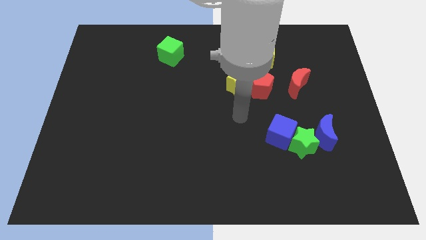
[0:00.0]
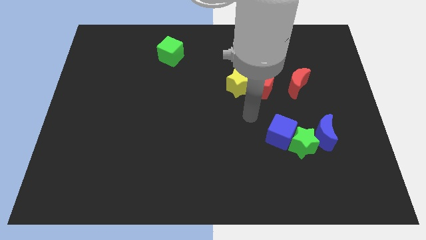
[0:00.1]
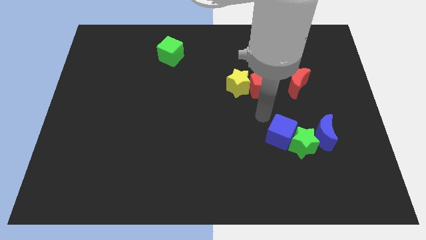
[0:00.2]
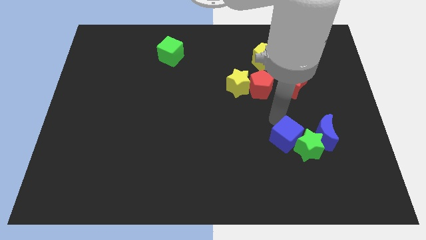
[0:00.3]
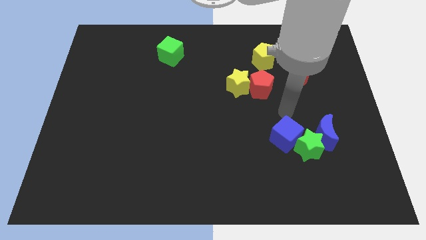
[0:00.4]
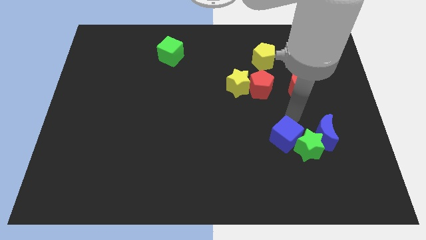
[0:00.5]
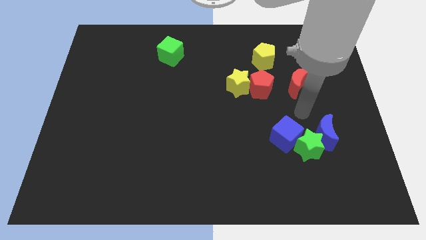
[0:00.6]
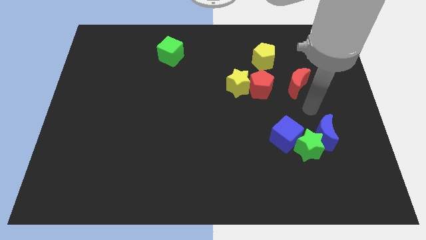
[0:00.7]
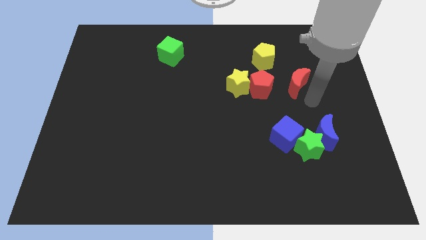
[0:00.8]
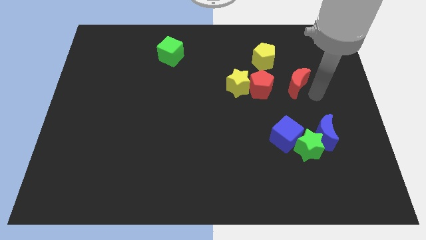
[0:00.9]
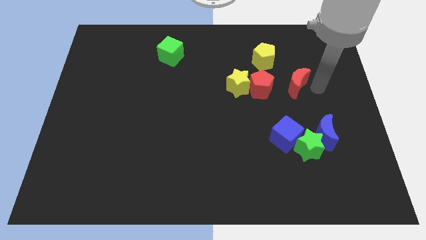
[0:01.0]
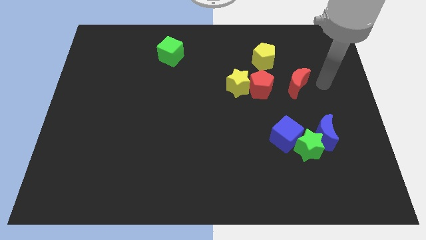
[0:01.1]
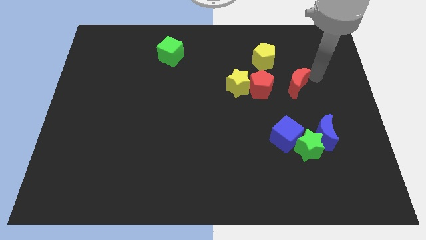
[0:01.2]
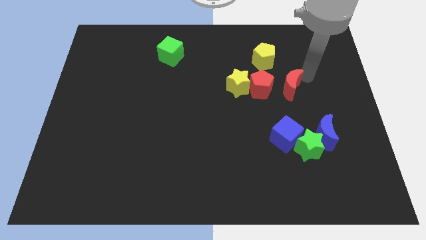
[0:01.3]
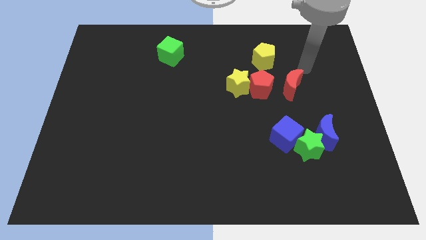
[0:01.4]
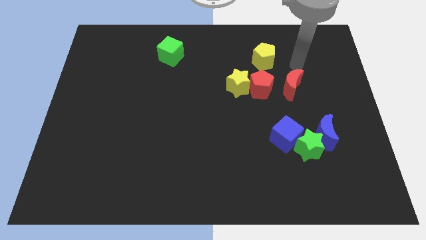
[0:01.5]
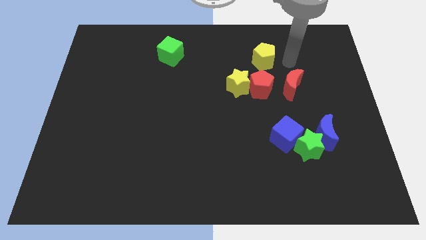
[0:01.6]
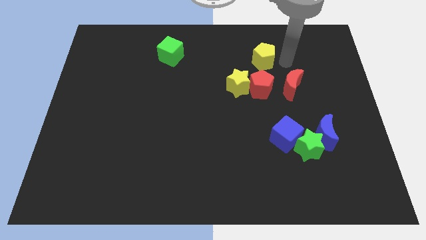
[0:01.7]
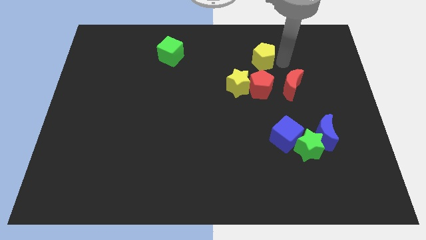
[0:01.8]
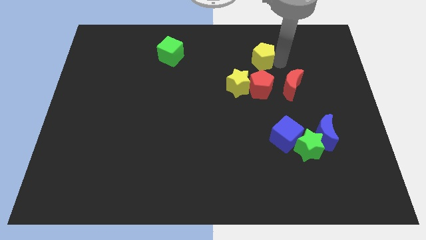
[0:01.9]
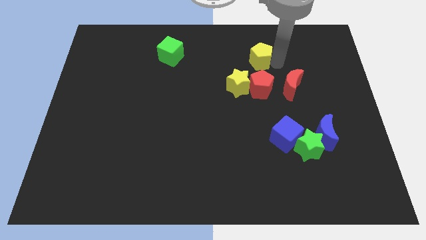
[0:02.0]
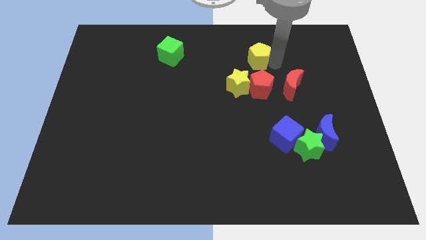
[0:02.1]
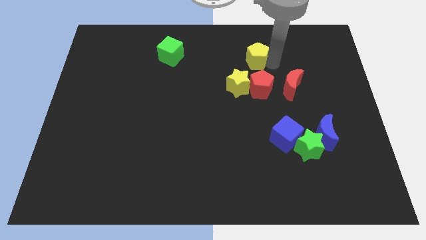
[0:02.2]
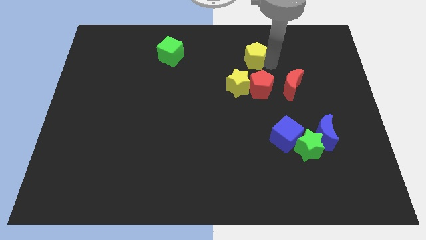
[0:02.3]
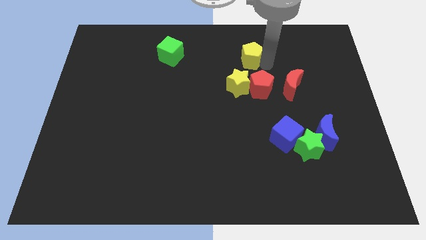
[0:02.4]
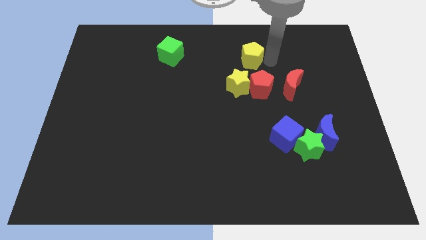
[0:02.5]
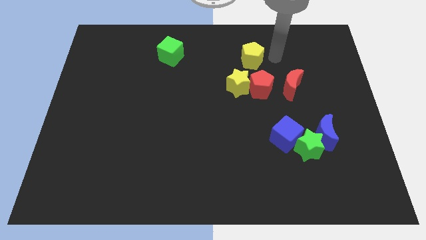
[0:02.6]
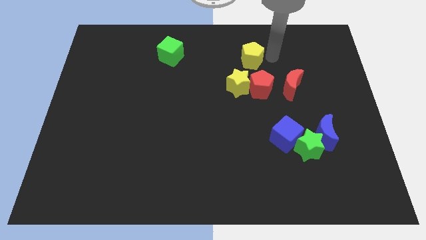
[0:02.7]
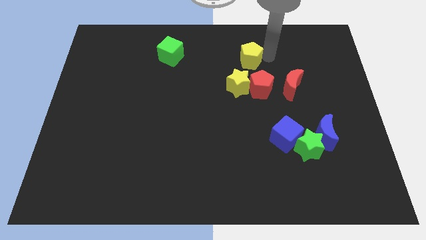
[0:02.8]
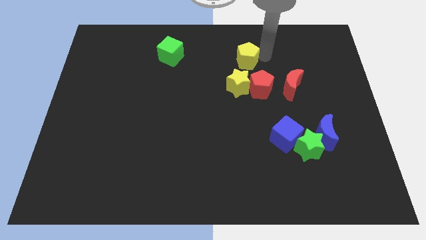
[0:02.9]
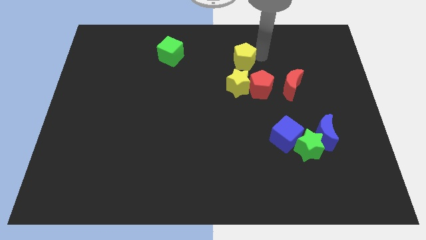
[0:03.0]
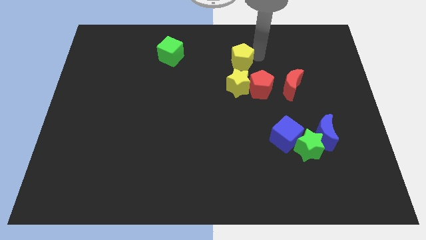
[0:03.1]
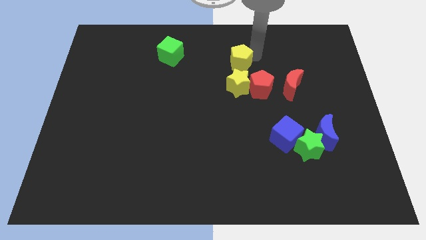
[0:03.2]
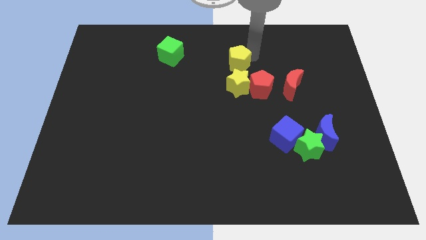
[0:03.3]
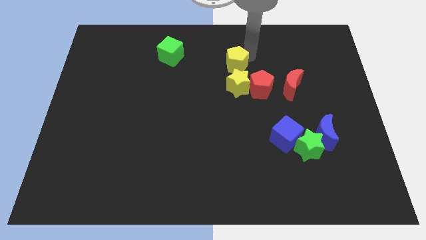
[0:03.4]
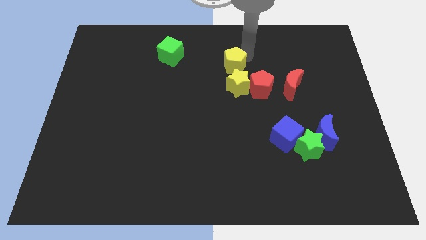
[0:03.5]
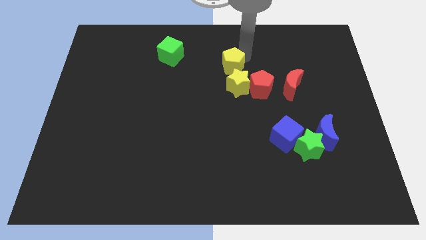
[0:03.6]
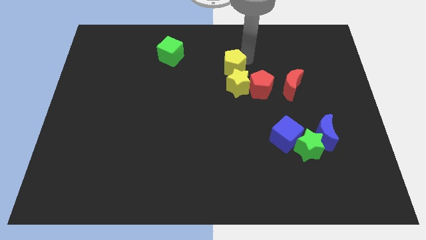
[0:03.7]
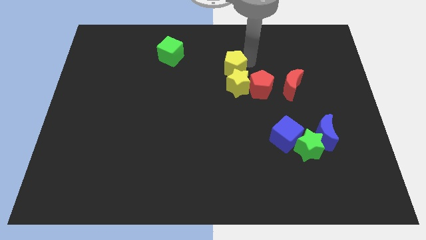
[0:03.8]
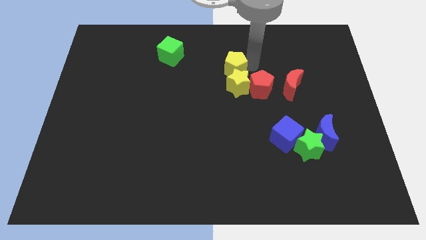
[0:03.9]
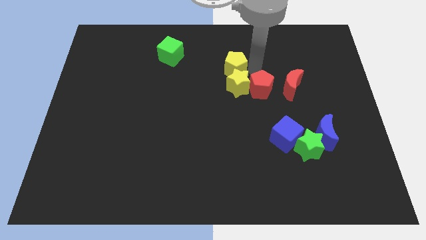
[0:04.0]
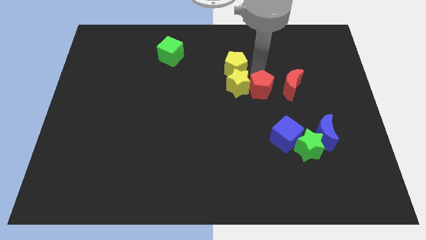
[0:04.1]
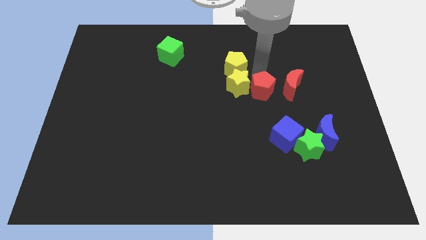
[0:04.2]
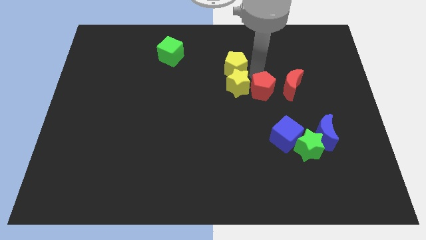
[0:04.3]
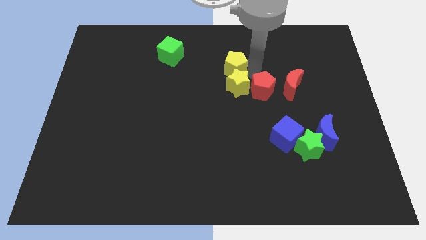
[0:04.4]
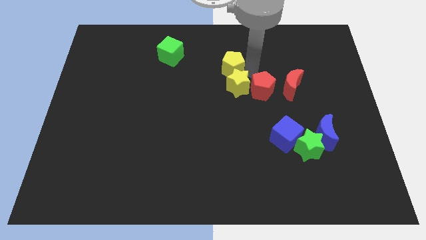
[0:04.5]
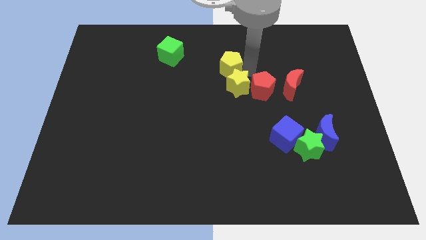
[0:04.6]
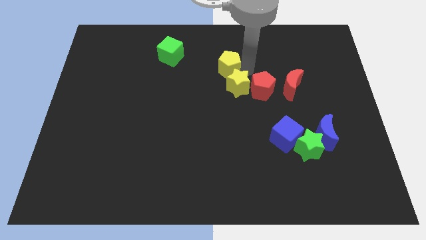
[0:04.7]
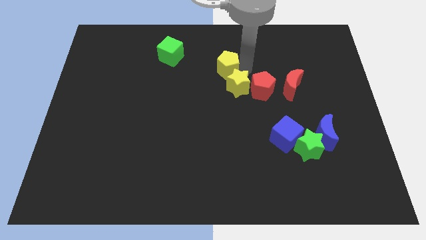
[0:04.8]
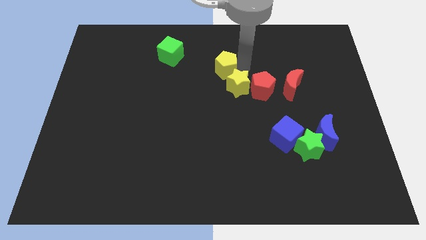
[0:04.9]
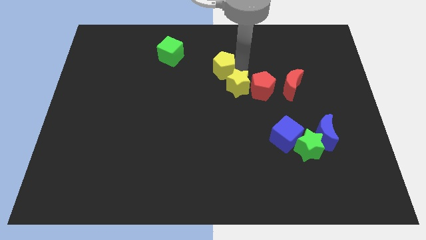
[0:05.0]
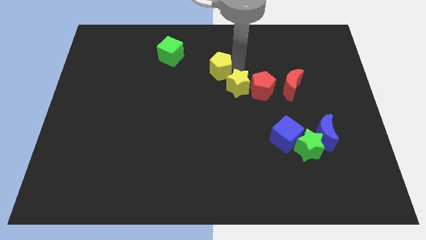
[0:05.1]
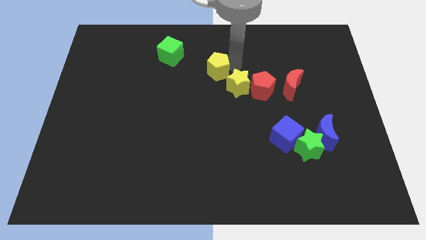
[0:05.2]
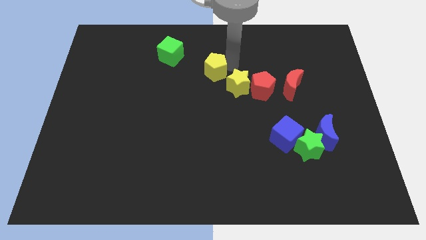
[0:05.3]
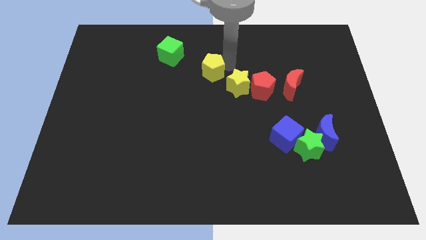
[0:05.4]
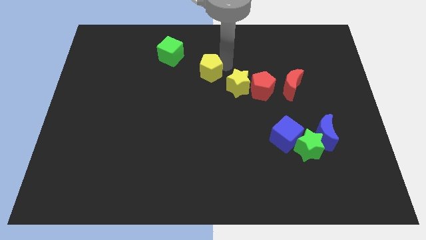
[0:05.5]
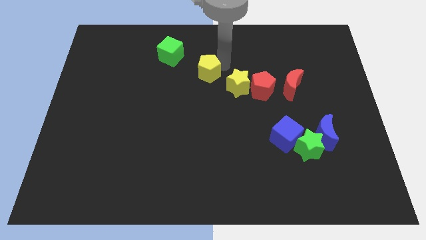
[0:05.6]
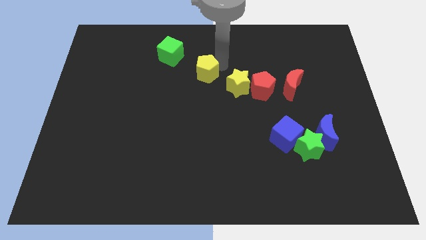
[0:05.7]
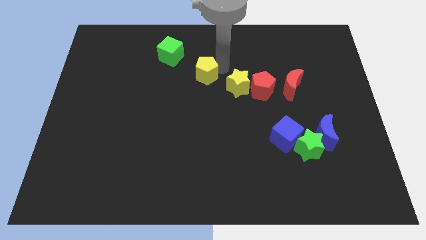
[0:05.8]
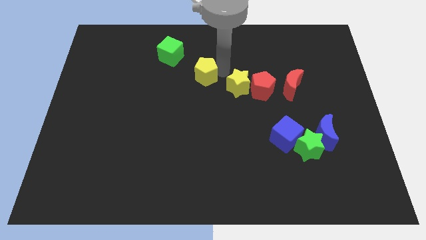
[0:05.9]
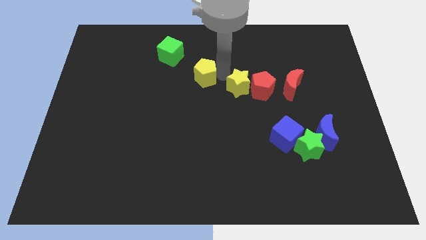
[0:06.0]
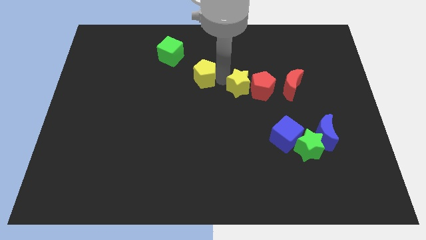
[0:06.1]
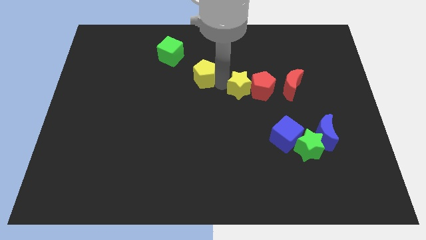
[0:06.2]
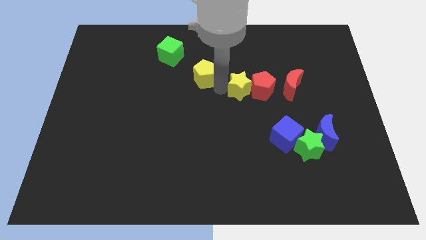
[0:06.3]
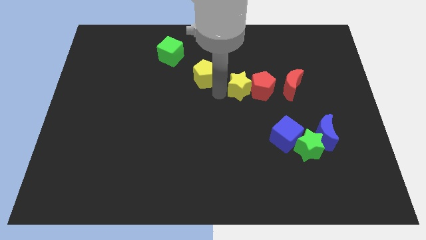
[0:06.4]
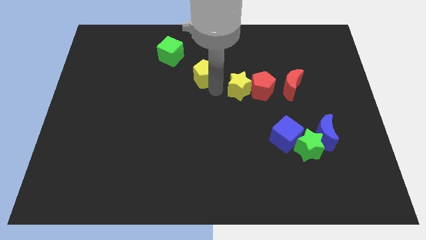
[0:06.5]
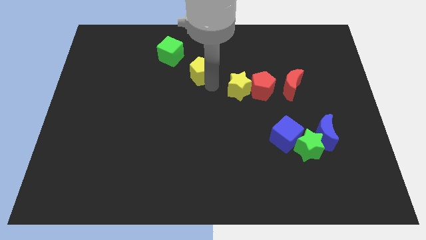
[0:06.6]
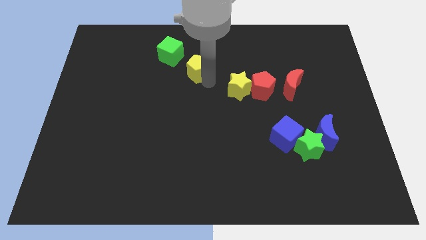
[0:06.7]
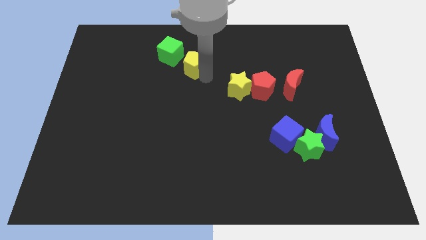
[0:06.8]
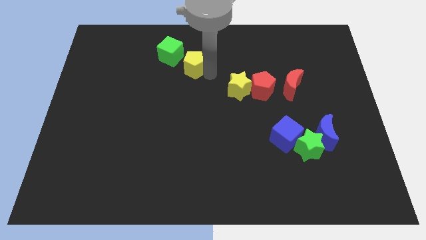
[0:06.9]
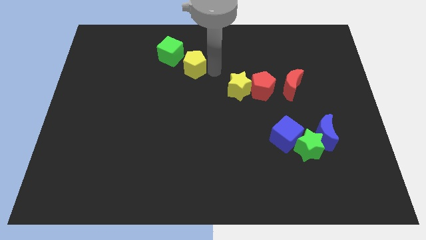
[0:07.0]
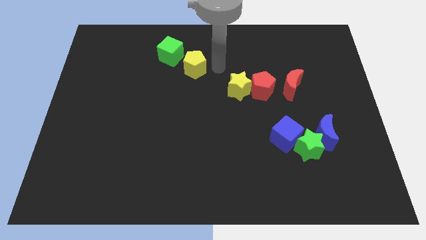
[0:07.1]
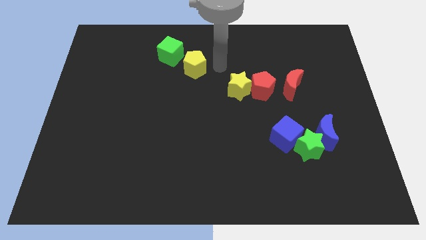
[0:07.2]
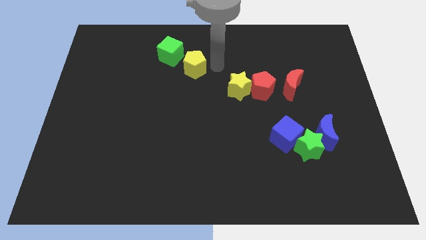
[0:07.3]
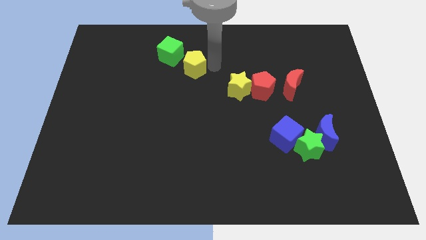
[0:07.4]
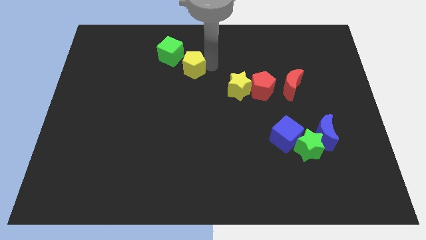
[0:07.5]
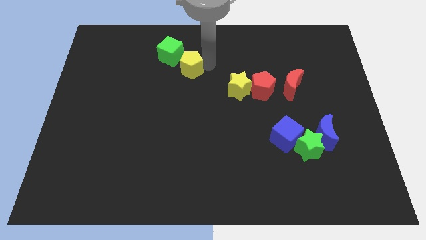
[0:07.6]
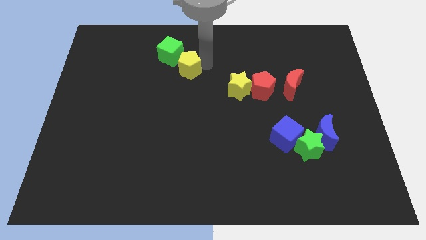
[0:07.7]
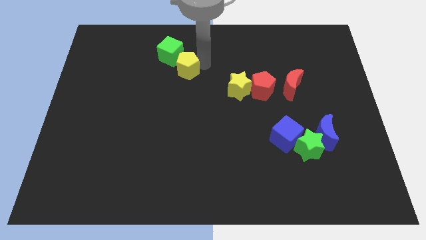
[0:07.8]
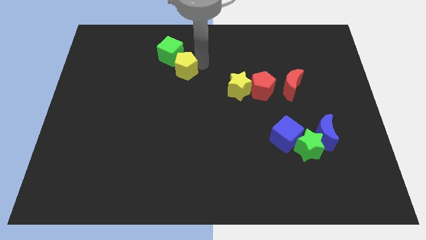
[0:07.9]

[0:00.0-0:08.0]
move the yellow pentagon to the left
